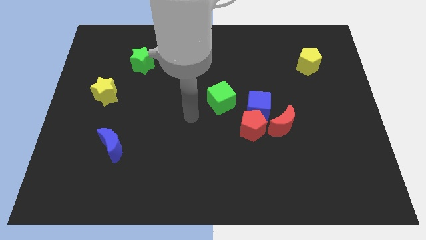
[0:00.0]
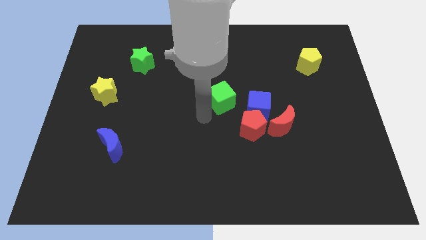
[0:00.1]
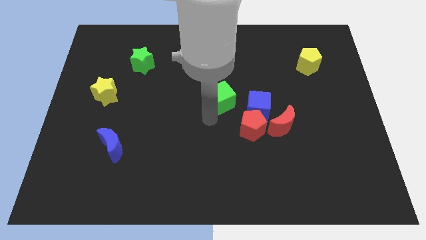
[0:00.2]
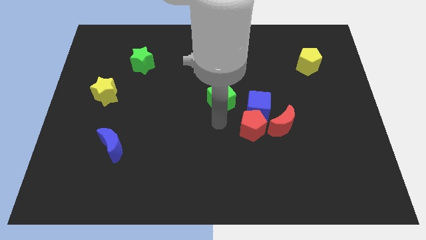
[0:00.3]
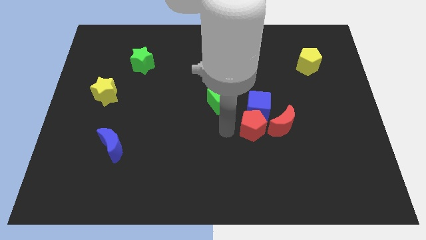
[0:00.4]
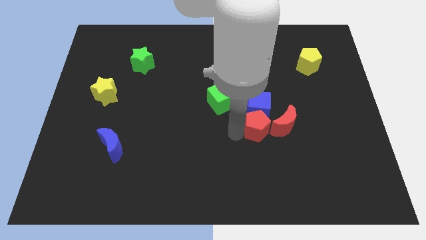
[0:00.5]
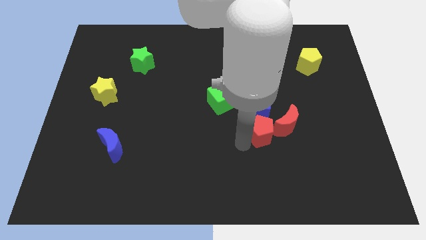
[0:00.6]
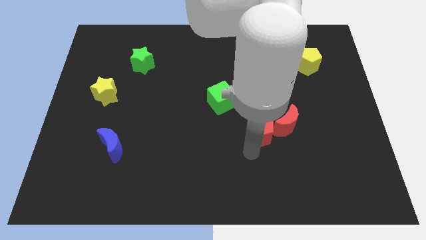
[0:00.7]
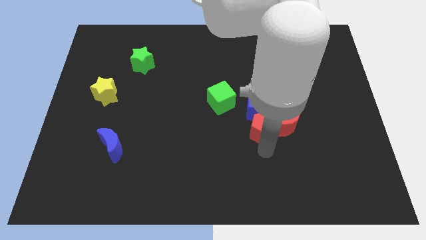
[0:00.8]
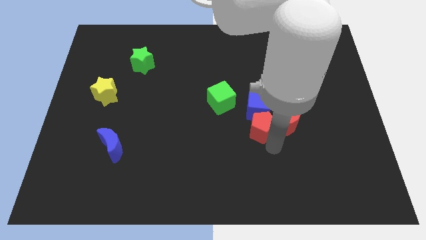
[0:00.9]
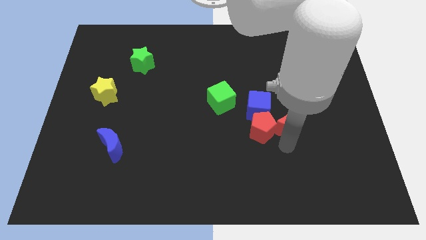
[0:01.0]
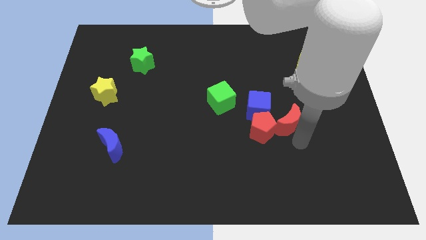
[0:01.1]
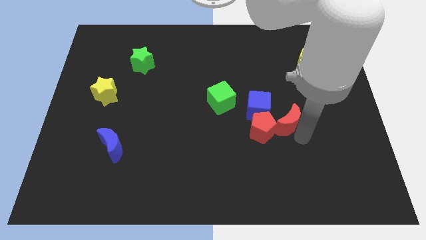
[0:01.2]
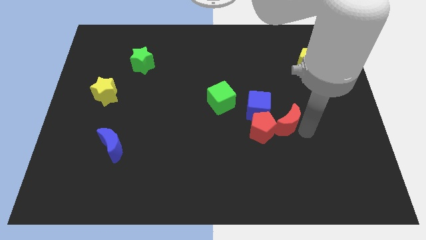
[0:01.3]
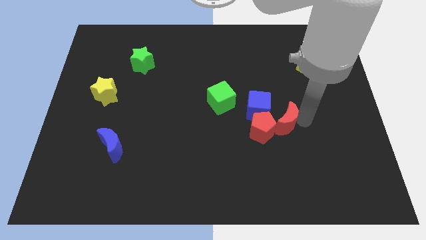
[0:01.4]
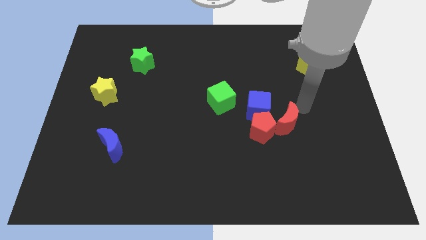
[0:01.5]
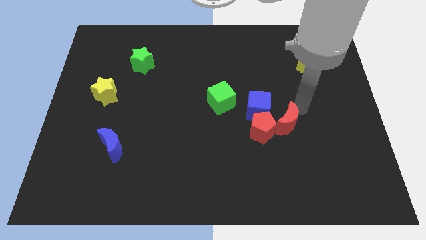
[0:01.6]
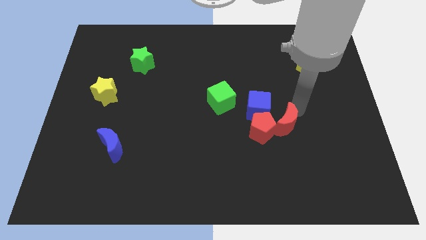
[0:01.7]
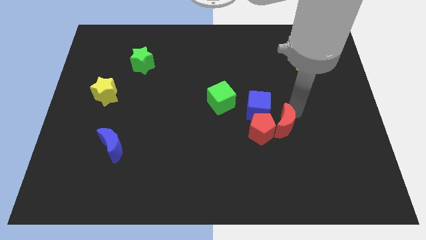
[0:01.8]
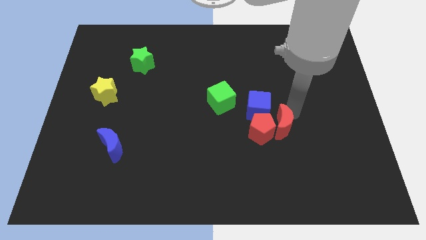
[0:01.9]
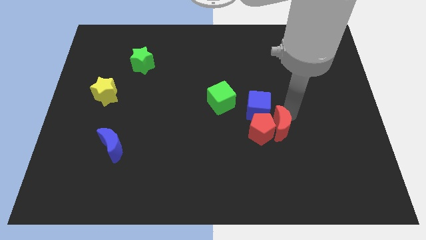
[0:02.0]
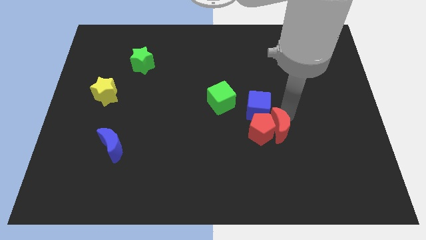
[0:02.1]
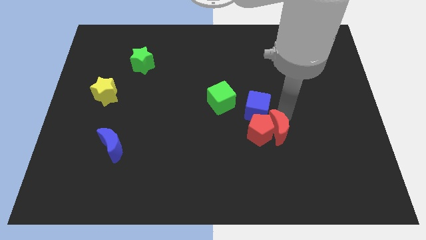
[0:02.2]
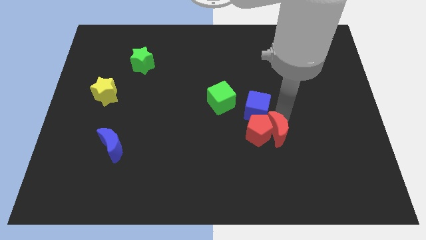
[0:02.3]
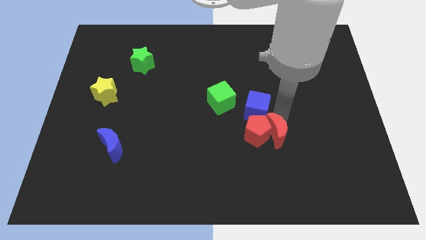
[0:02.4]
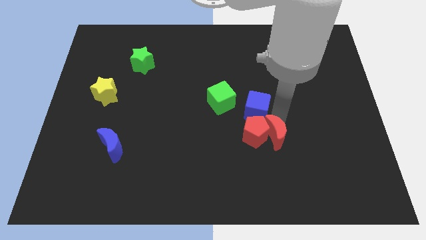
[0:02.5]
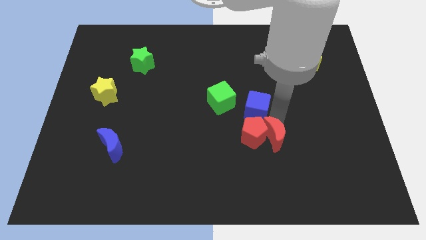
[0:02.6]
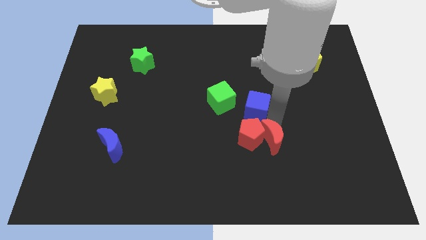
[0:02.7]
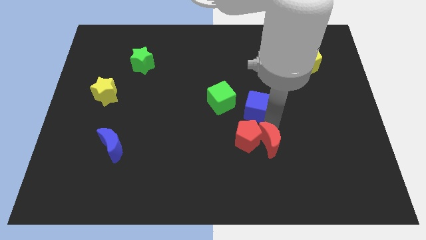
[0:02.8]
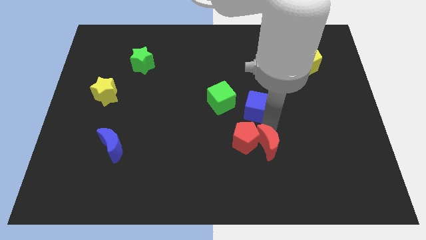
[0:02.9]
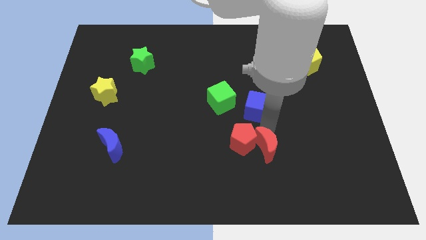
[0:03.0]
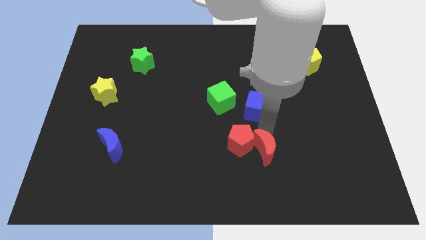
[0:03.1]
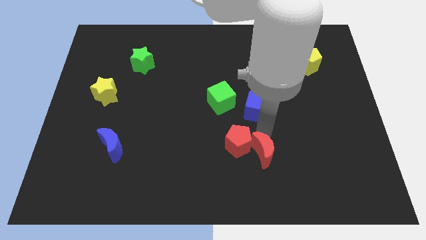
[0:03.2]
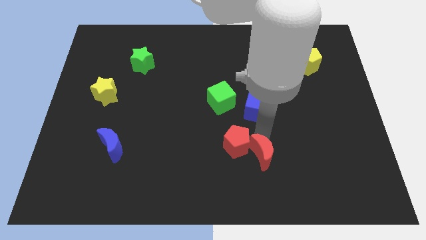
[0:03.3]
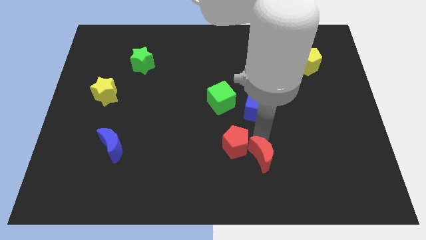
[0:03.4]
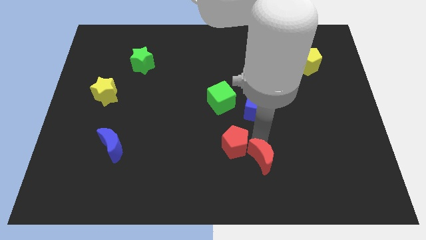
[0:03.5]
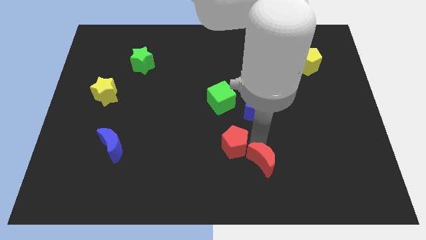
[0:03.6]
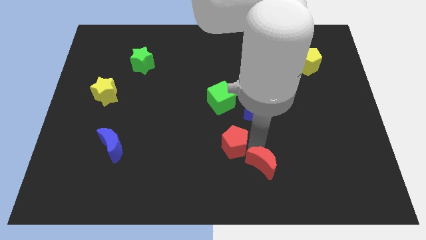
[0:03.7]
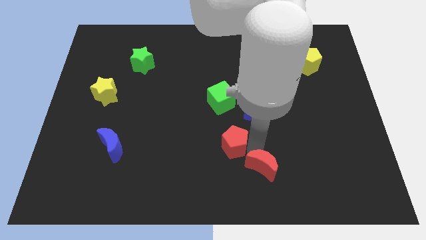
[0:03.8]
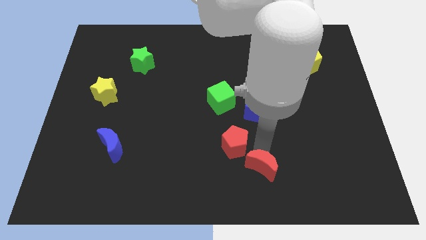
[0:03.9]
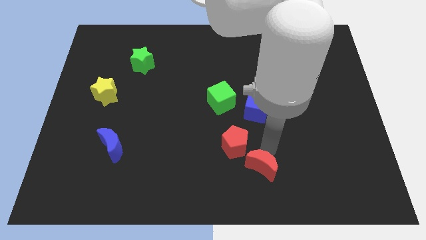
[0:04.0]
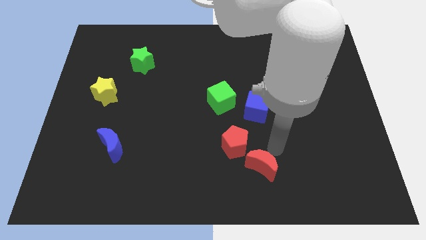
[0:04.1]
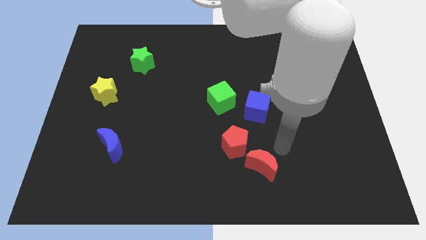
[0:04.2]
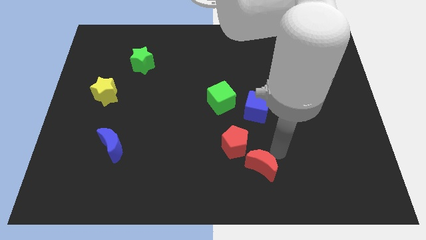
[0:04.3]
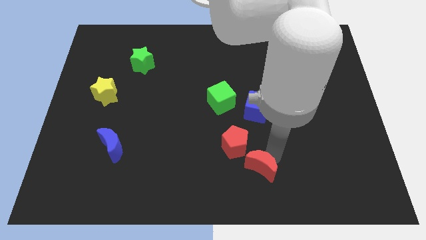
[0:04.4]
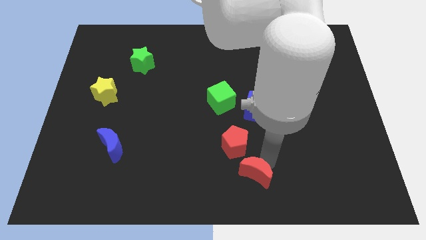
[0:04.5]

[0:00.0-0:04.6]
push the red moon to the bottom side

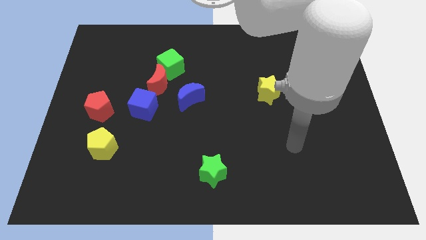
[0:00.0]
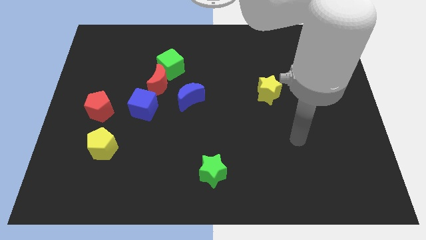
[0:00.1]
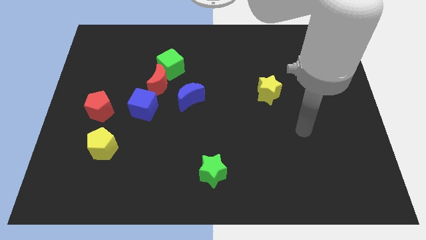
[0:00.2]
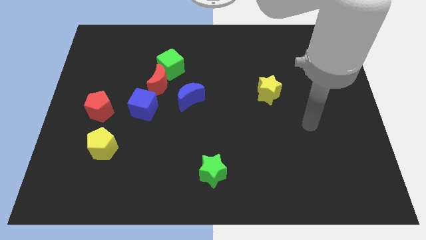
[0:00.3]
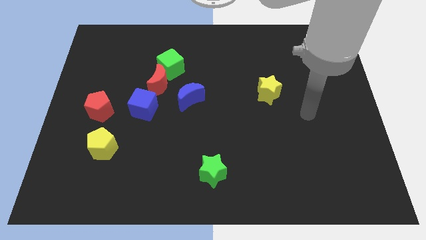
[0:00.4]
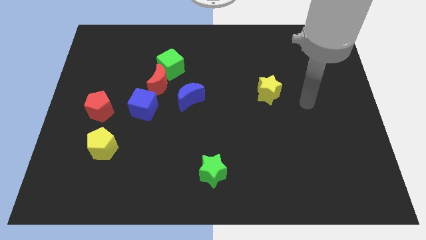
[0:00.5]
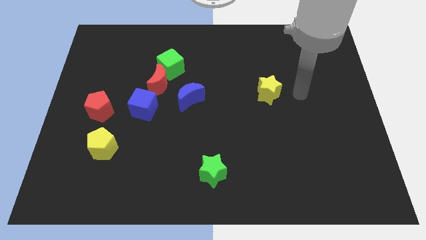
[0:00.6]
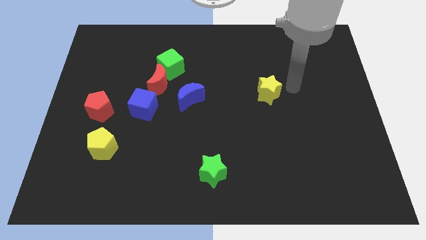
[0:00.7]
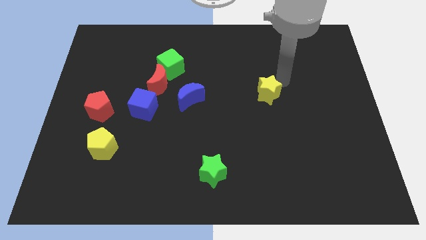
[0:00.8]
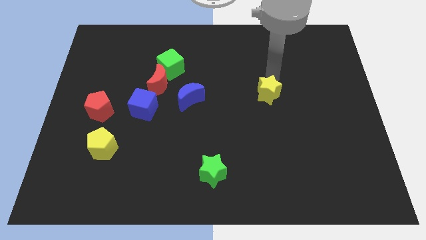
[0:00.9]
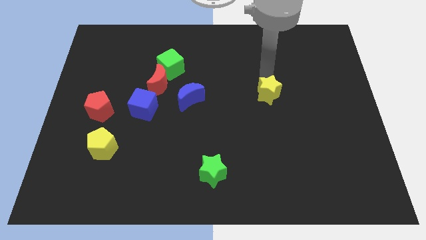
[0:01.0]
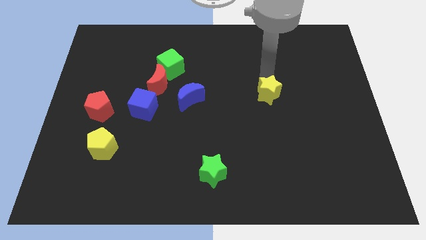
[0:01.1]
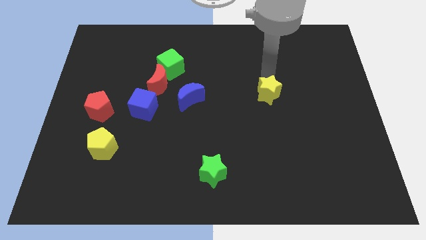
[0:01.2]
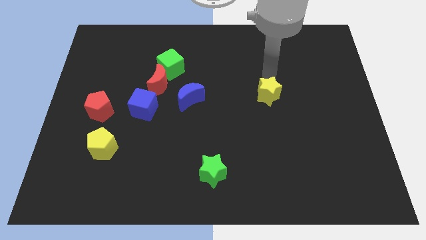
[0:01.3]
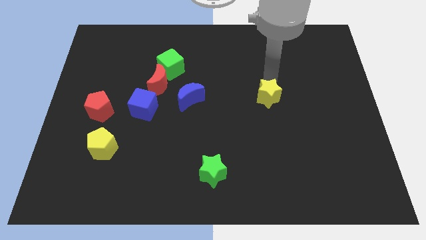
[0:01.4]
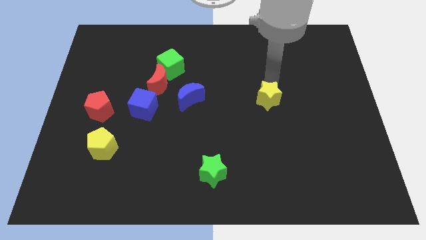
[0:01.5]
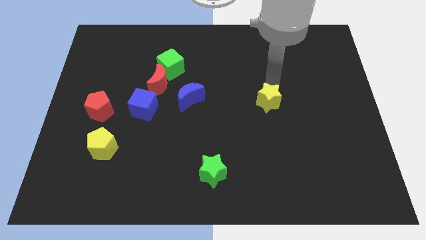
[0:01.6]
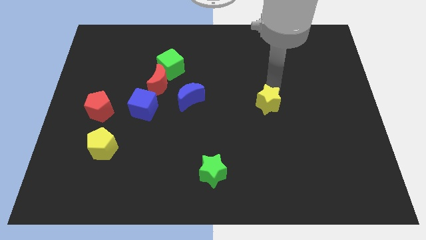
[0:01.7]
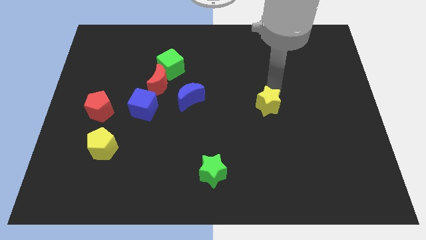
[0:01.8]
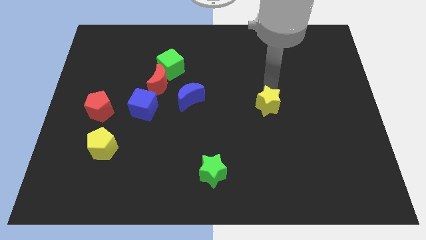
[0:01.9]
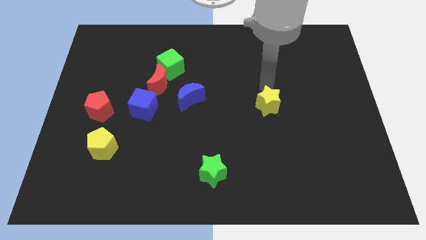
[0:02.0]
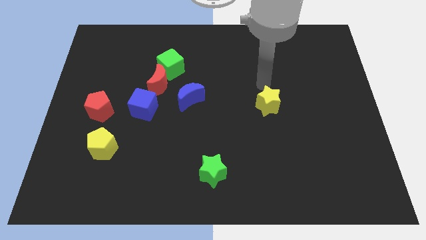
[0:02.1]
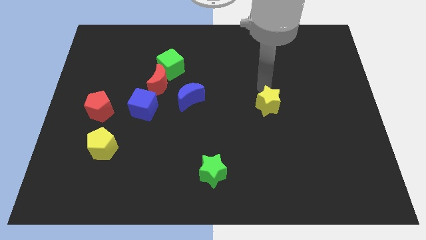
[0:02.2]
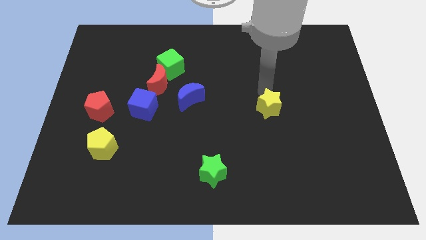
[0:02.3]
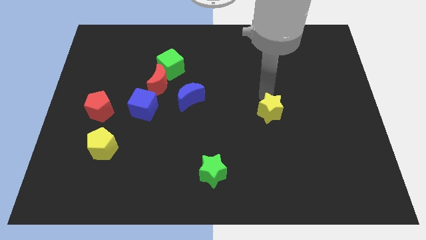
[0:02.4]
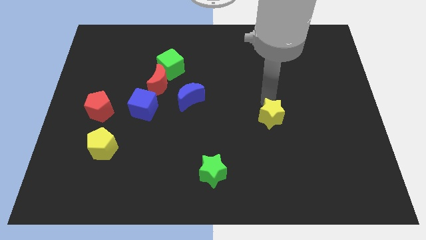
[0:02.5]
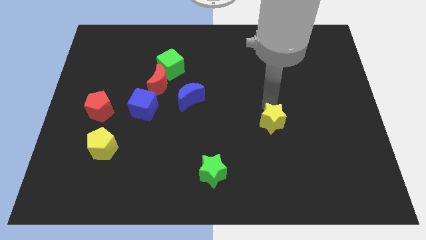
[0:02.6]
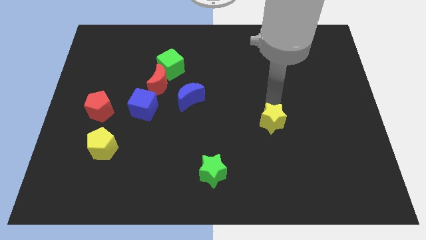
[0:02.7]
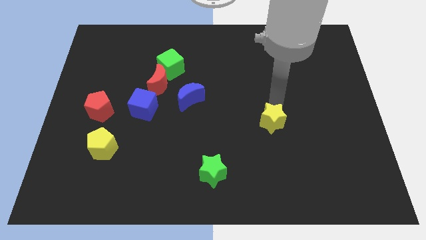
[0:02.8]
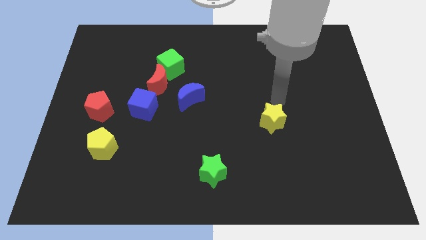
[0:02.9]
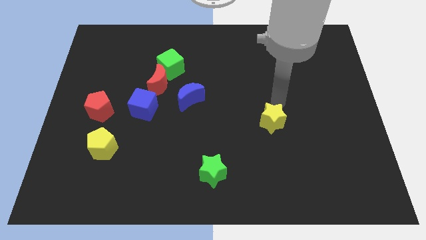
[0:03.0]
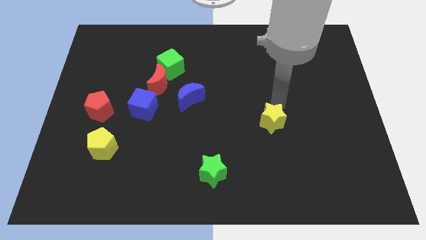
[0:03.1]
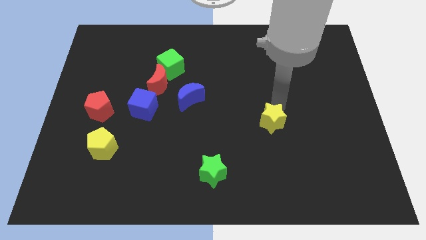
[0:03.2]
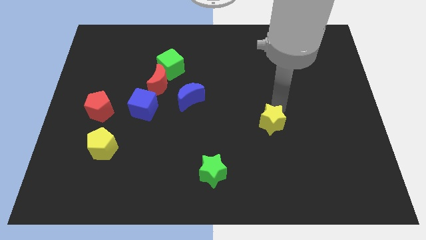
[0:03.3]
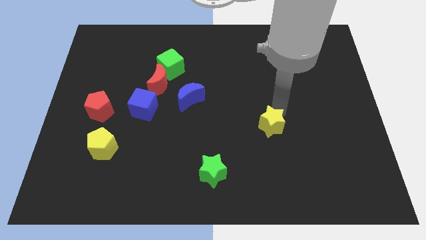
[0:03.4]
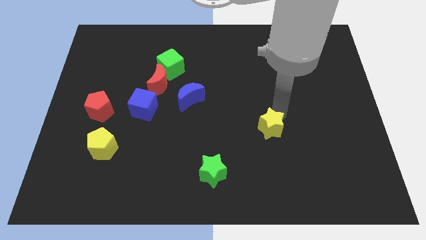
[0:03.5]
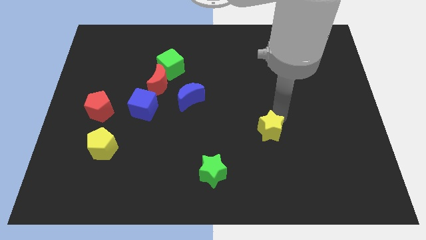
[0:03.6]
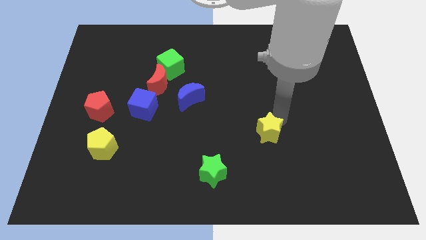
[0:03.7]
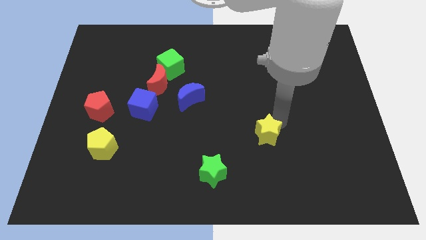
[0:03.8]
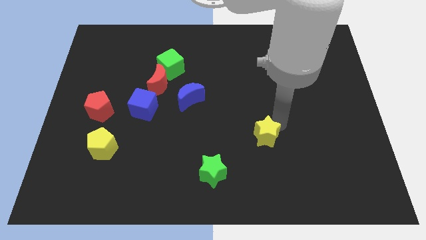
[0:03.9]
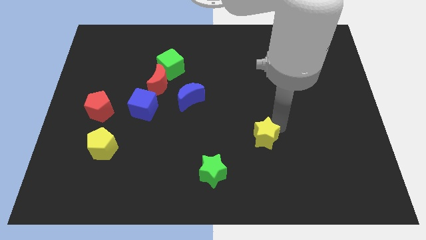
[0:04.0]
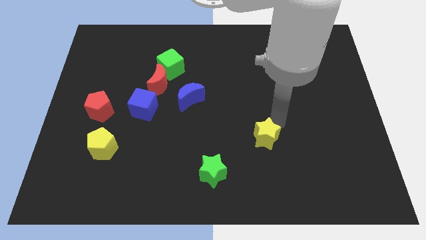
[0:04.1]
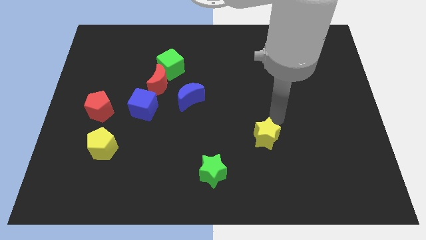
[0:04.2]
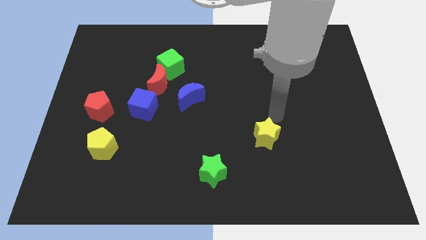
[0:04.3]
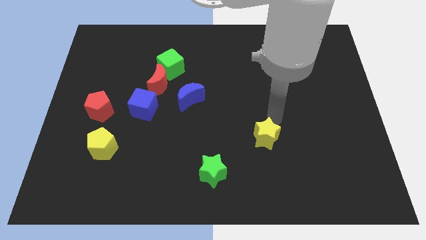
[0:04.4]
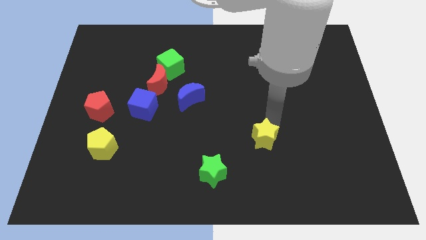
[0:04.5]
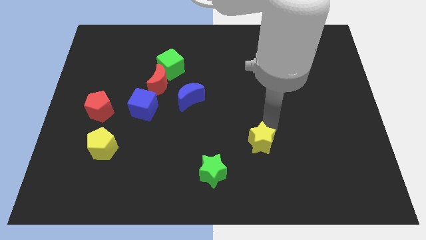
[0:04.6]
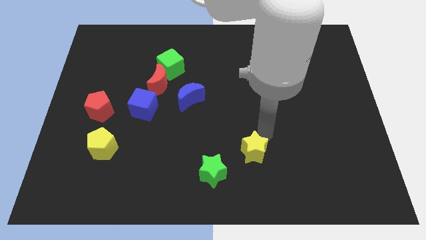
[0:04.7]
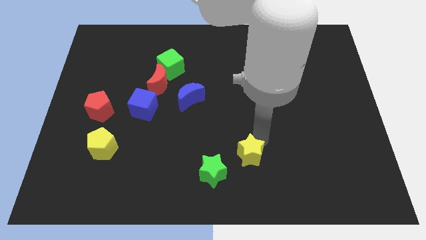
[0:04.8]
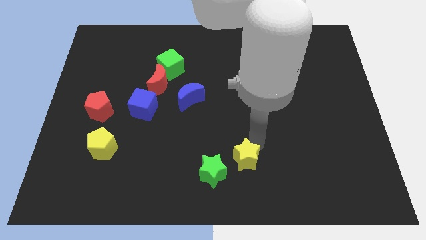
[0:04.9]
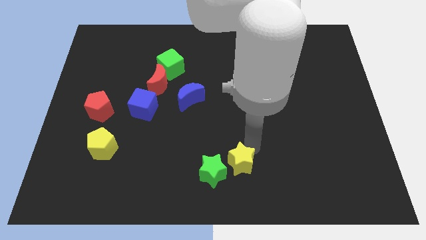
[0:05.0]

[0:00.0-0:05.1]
move the yellow star to the bottom
